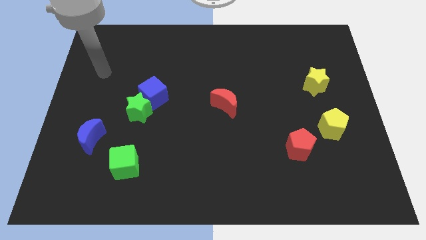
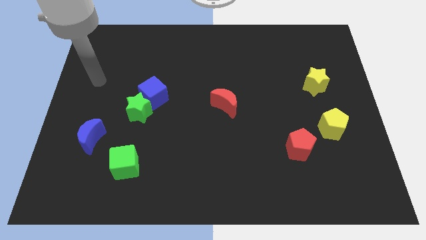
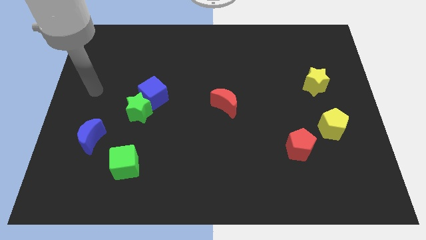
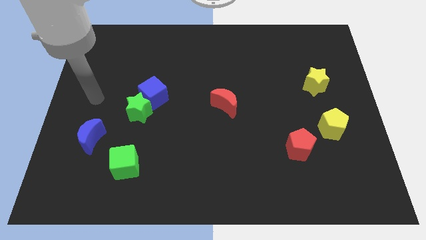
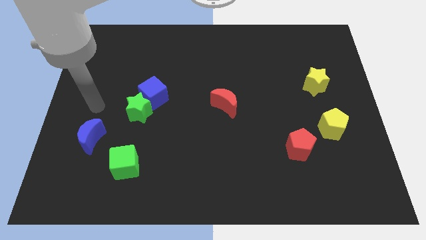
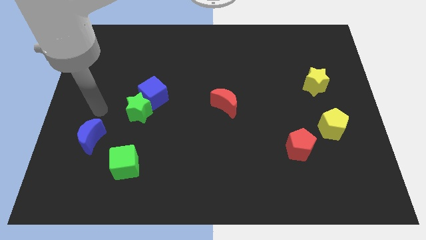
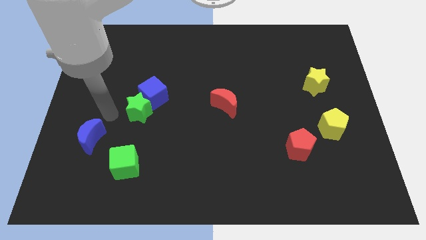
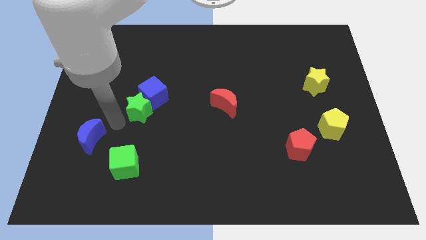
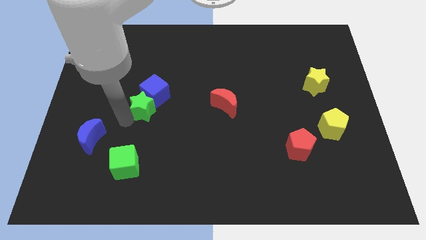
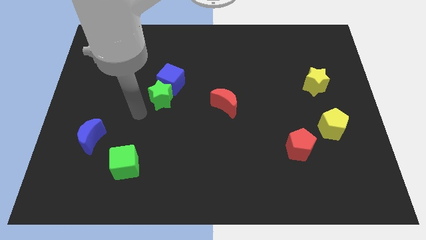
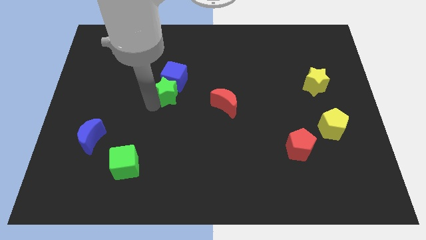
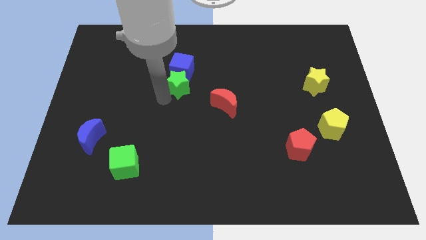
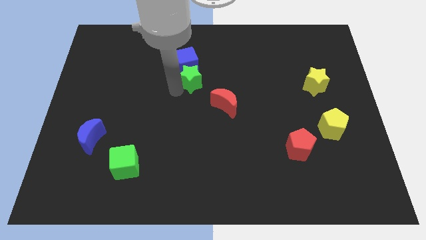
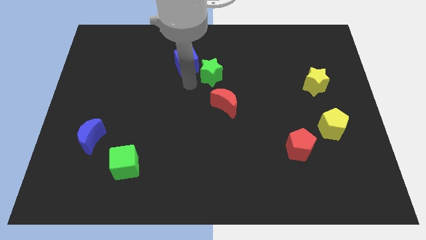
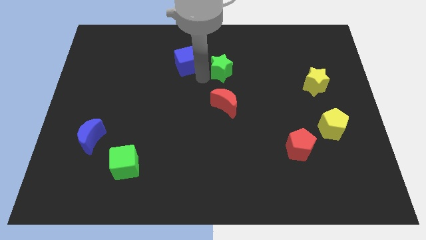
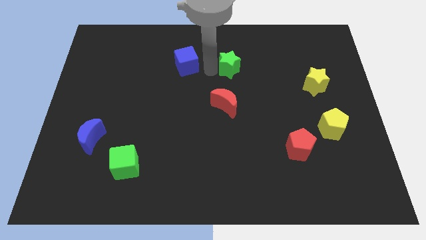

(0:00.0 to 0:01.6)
separate the blue cube from the green star

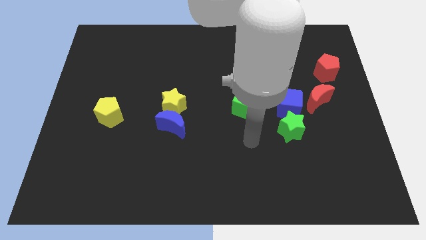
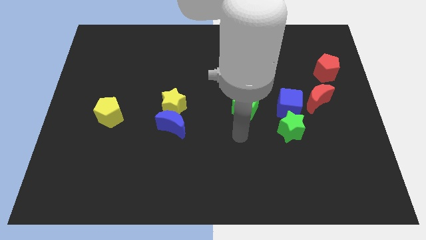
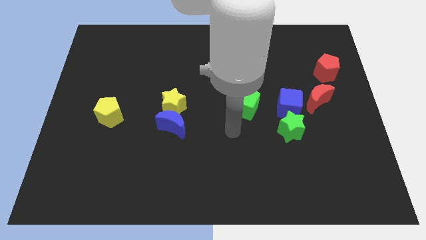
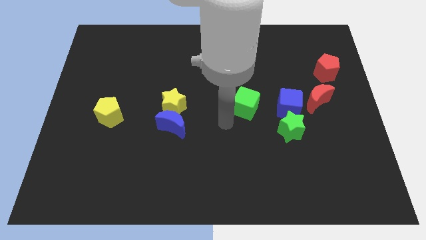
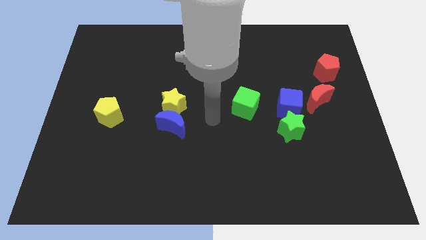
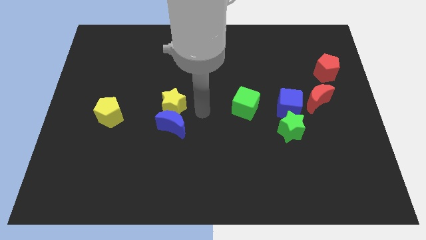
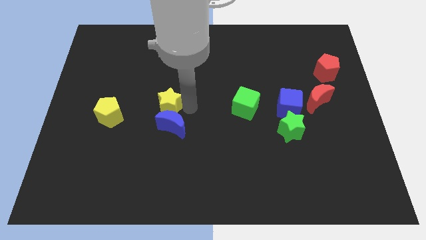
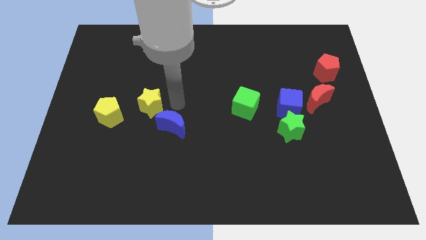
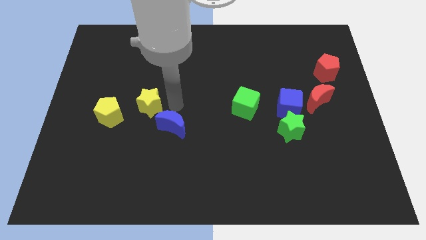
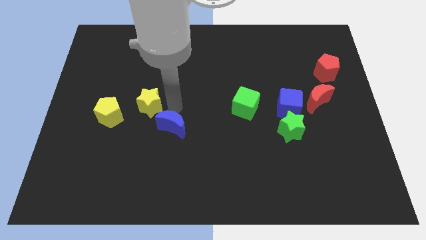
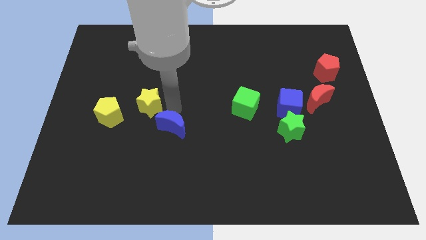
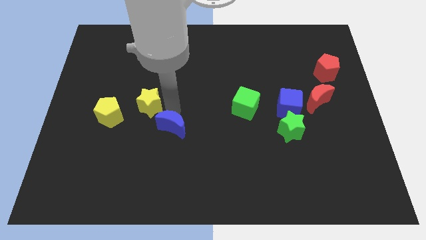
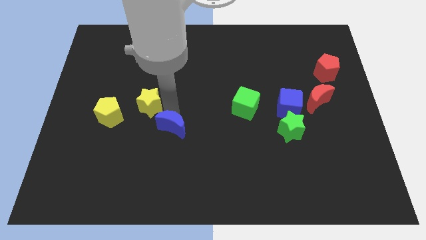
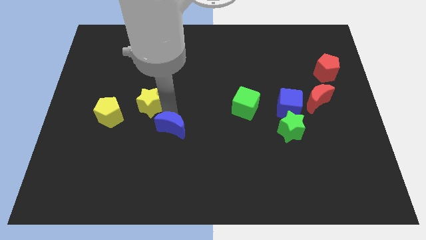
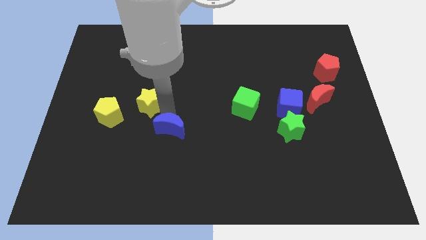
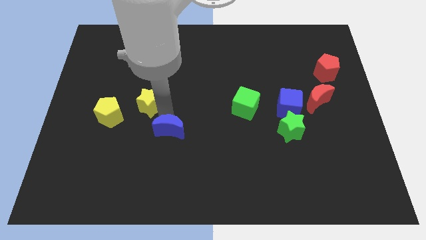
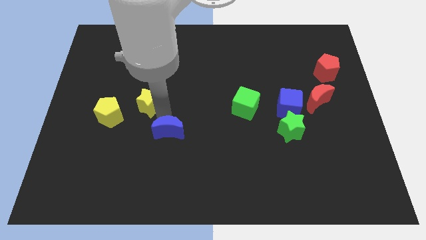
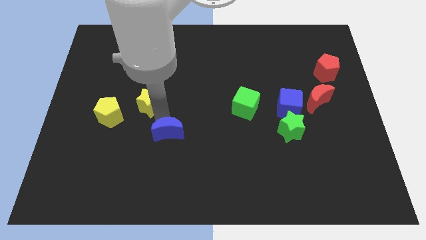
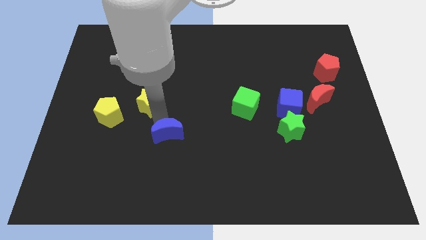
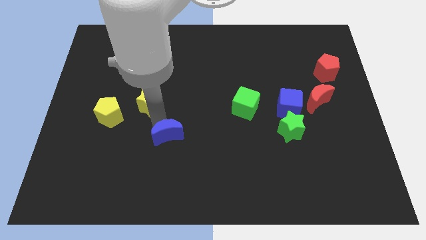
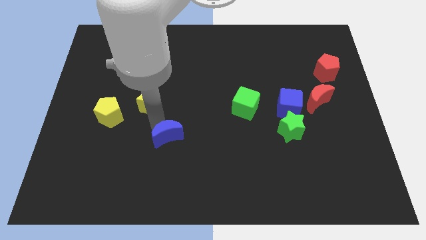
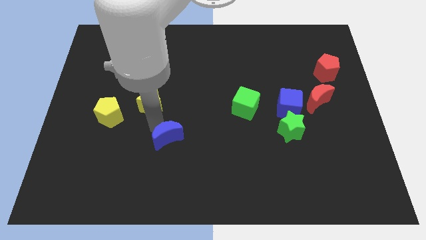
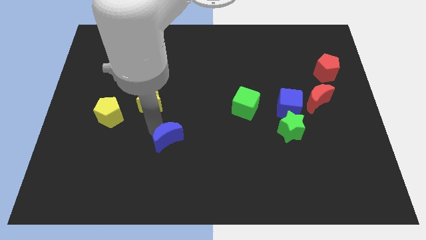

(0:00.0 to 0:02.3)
pull the blue moon apart from the yellow star

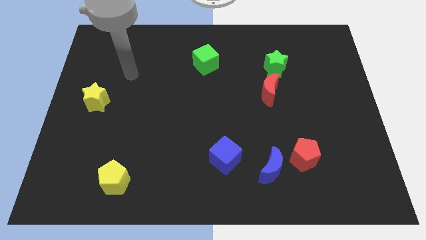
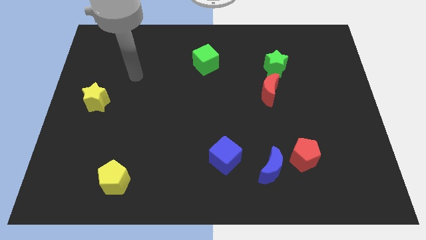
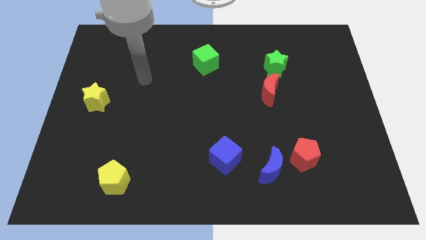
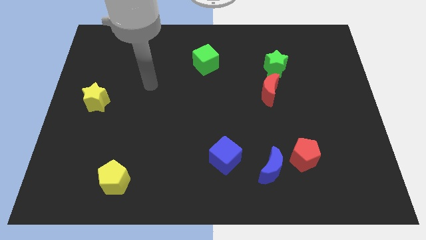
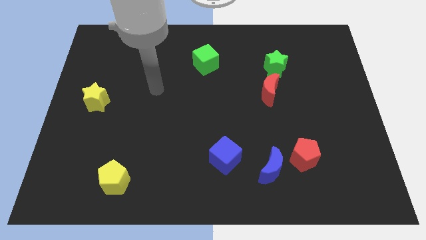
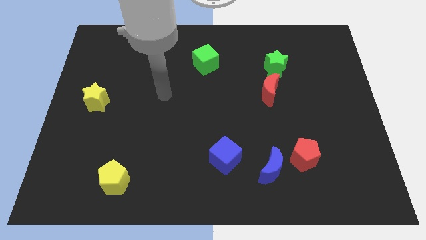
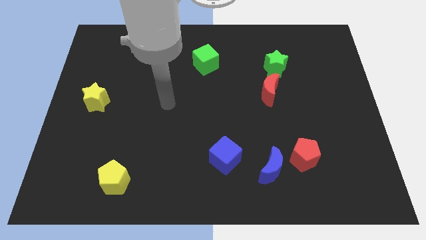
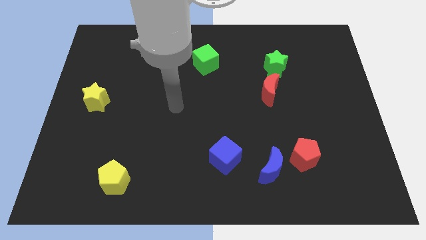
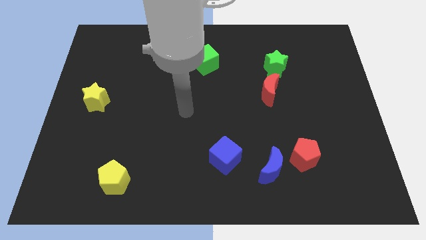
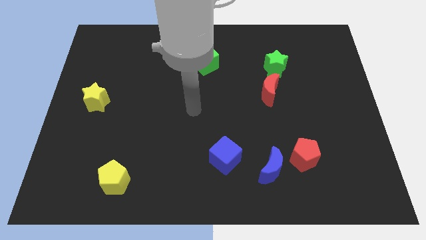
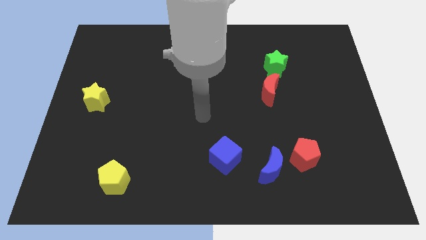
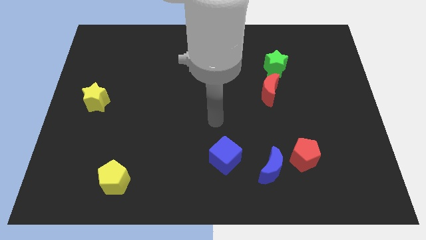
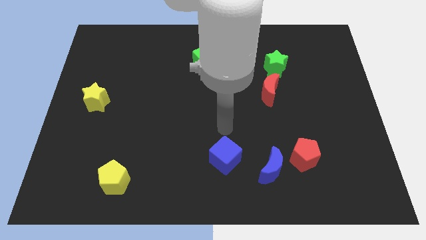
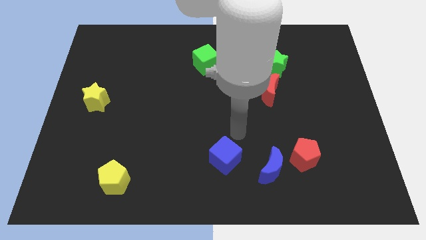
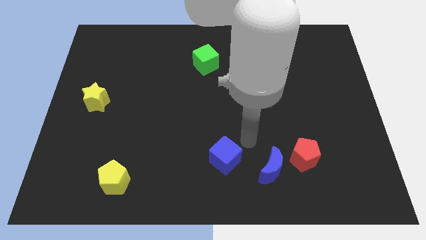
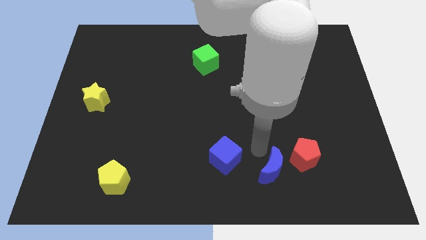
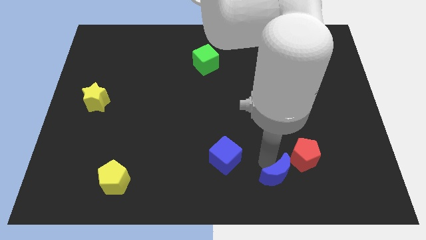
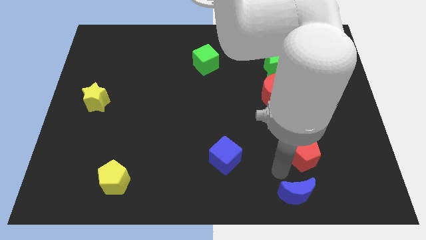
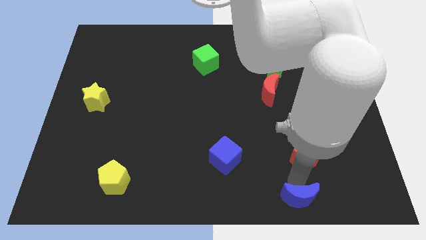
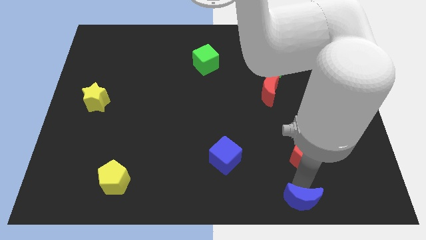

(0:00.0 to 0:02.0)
pull the red pentagon apart from the blue moon

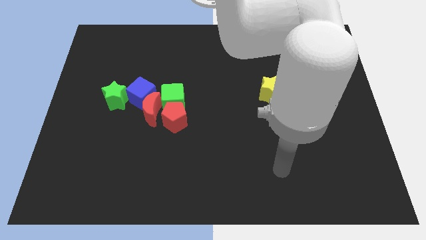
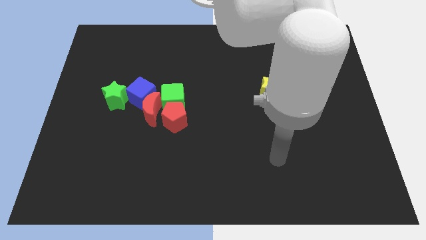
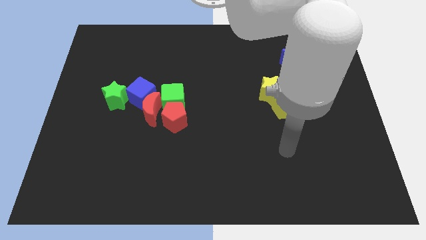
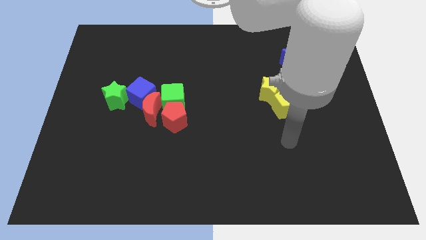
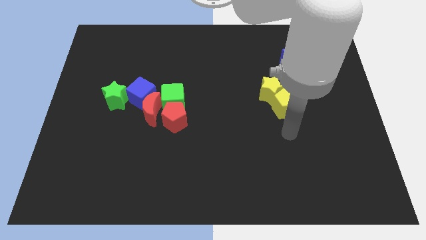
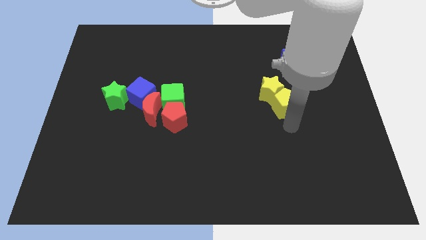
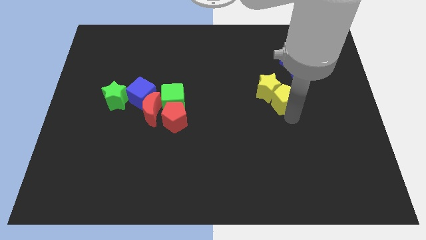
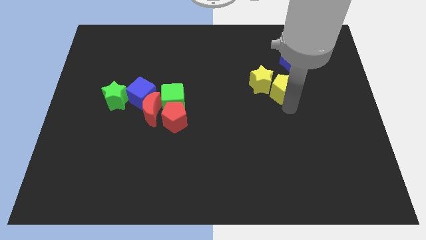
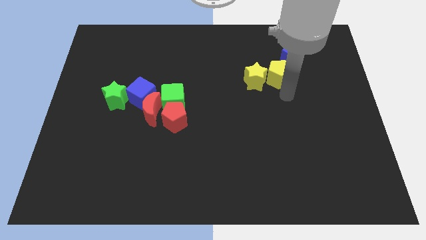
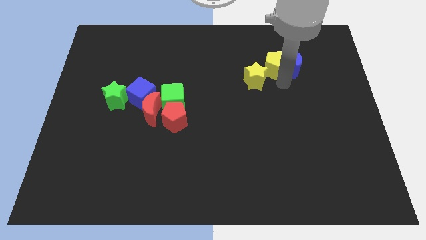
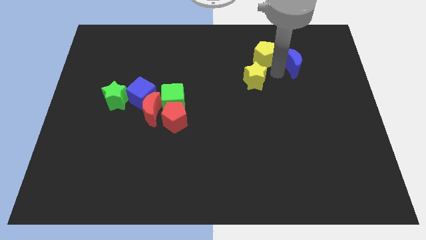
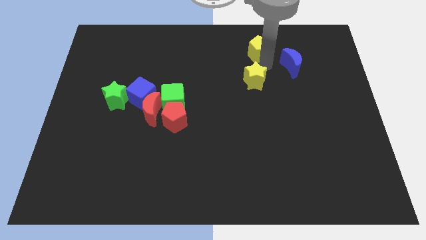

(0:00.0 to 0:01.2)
pull the yellow star apart from the yellow pentagon

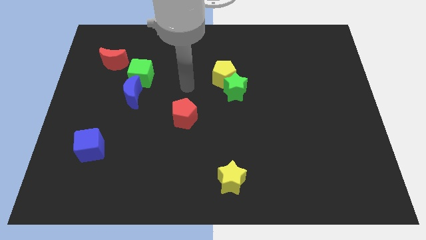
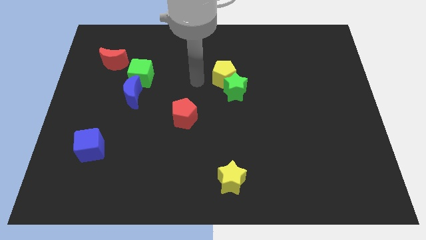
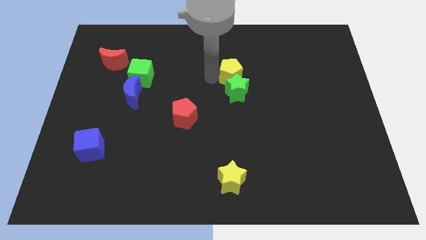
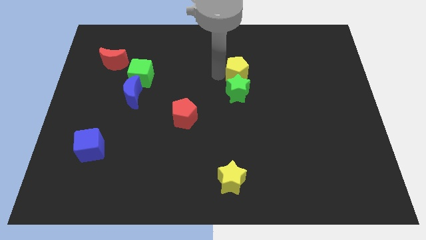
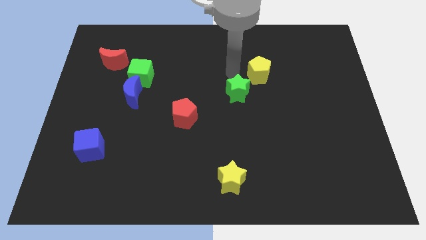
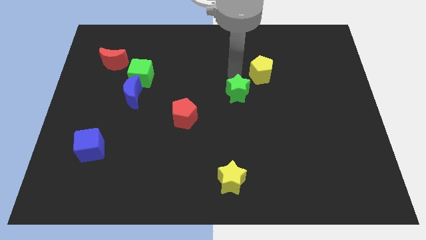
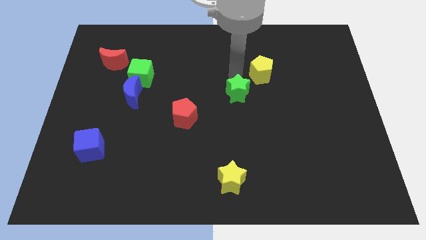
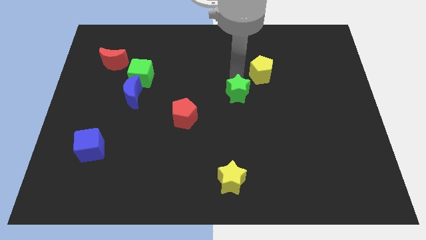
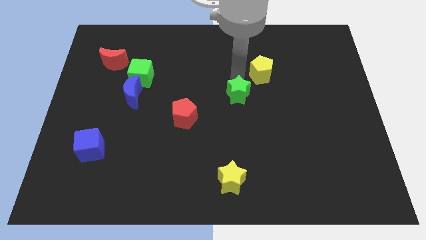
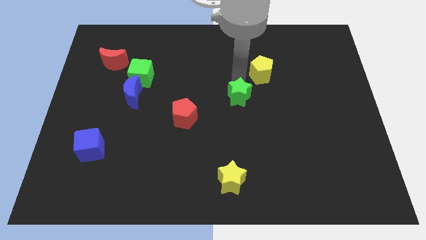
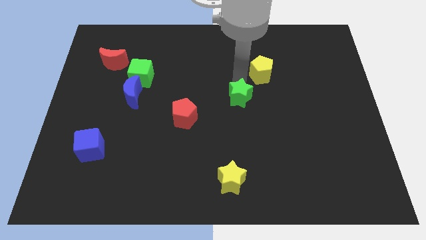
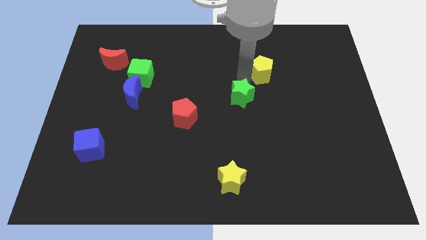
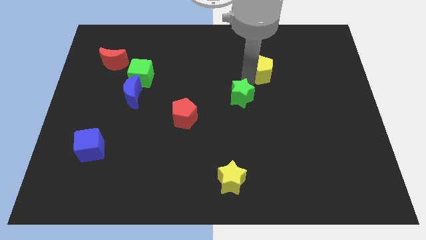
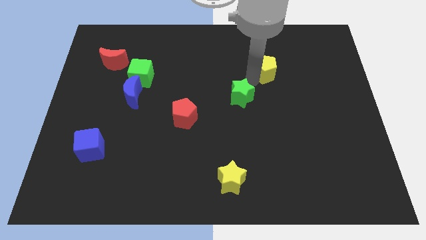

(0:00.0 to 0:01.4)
move the green star away from the yellow pentagon

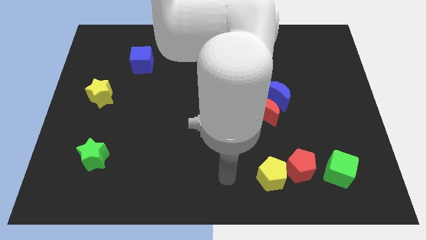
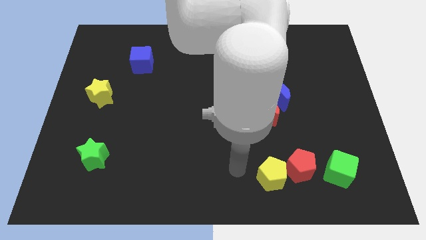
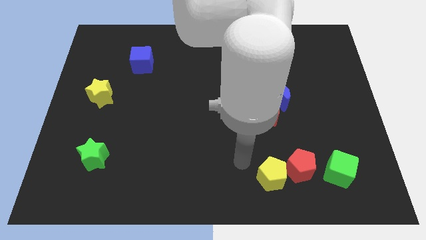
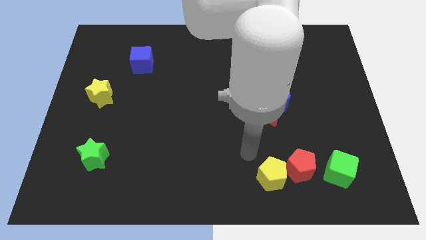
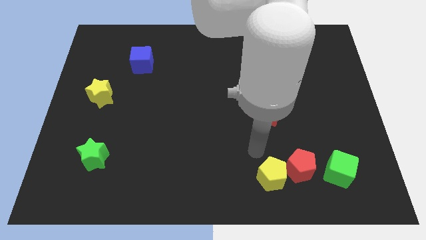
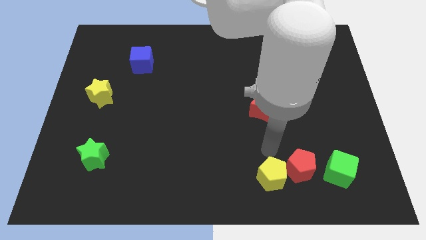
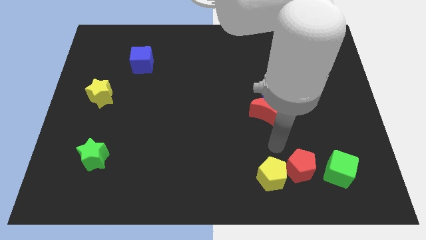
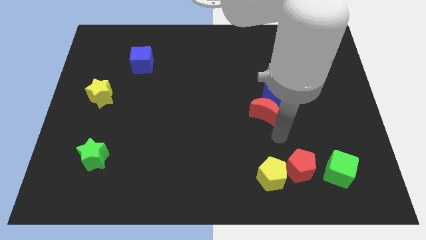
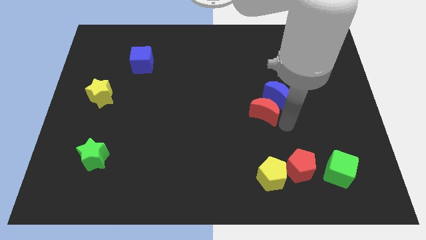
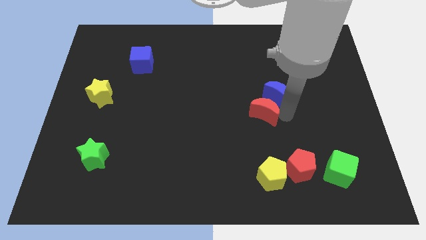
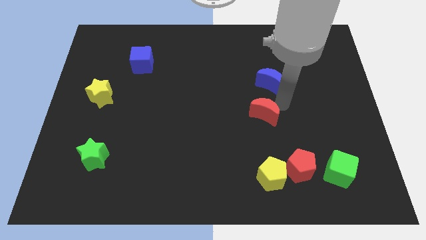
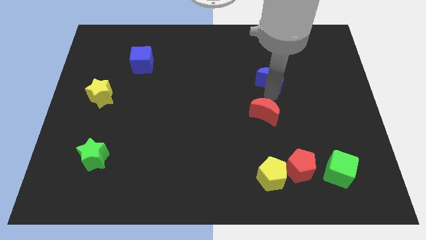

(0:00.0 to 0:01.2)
pull the red moon apart from the blue moon
